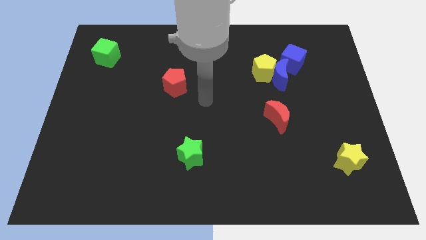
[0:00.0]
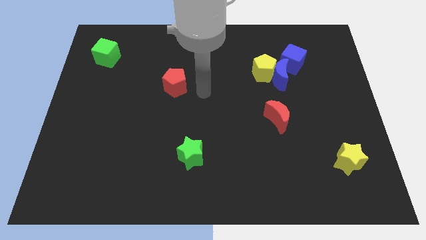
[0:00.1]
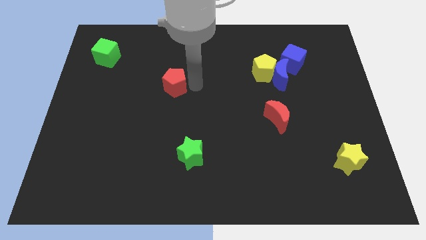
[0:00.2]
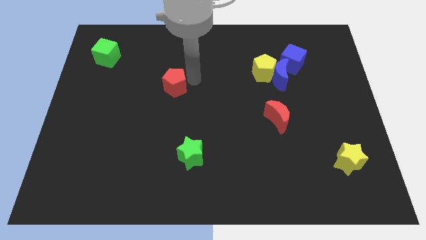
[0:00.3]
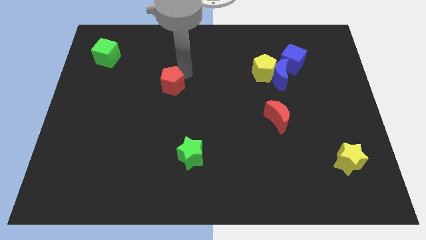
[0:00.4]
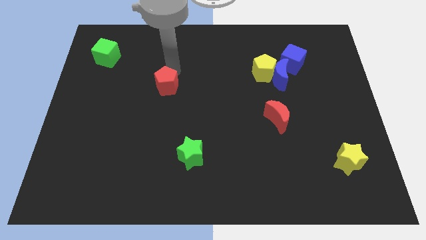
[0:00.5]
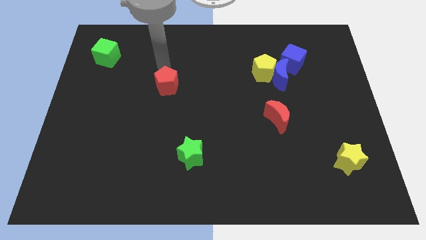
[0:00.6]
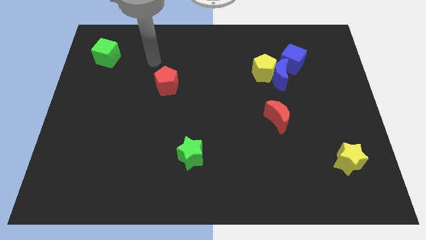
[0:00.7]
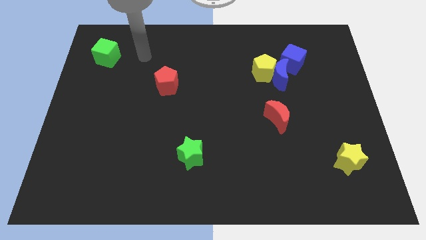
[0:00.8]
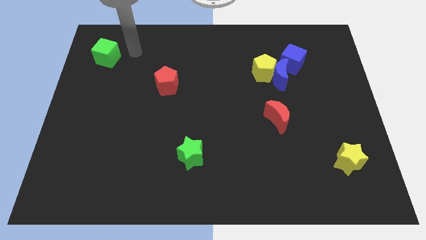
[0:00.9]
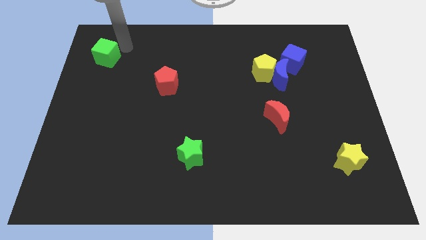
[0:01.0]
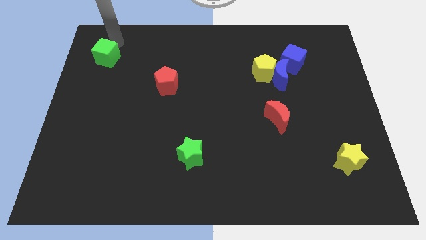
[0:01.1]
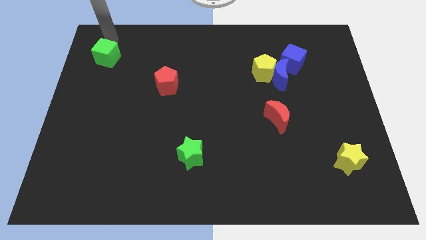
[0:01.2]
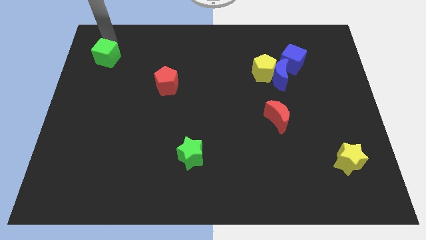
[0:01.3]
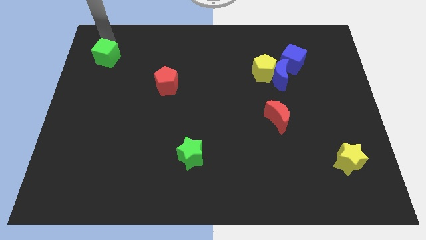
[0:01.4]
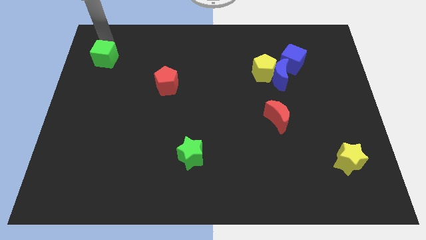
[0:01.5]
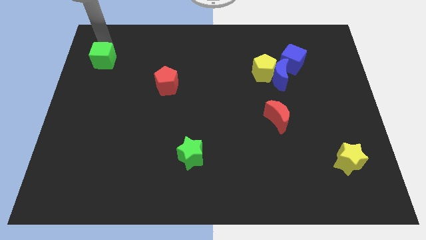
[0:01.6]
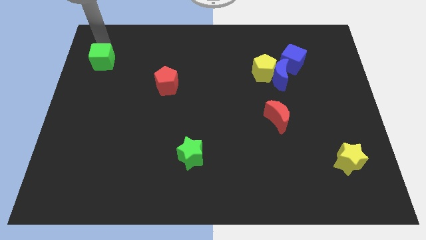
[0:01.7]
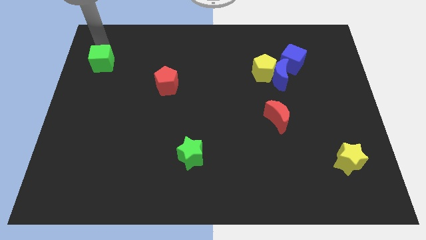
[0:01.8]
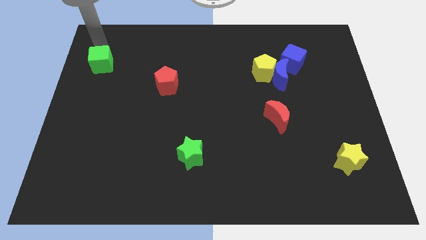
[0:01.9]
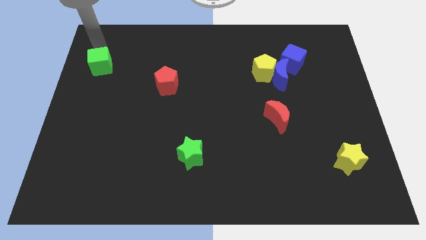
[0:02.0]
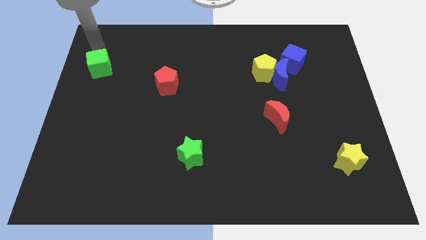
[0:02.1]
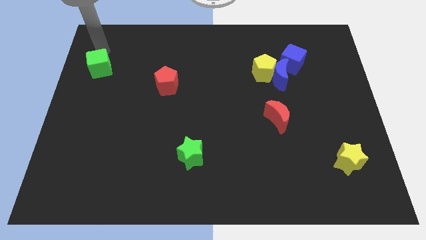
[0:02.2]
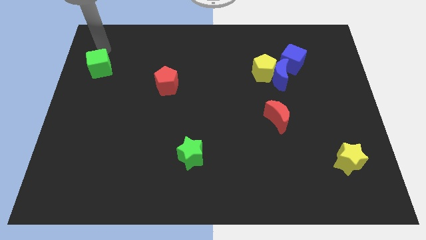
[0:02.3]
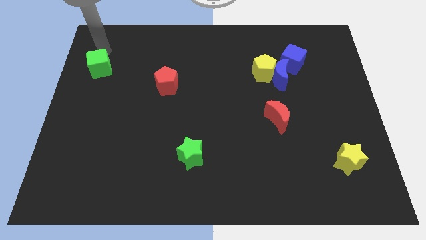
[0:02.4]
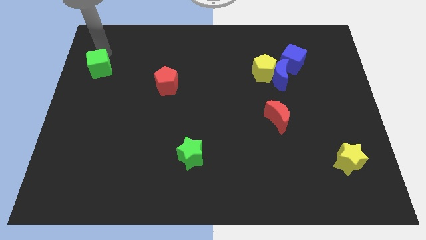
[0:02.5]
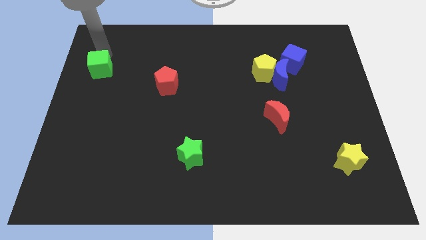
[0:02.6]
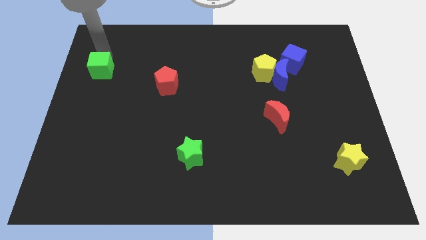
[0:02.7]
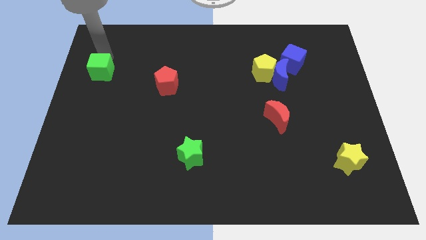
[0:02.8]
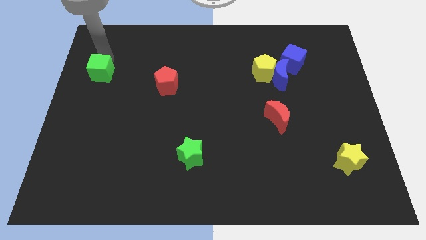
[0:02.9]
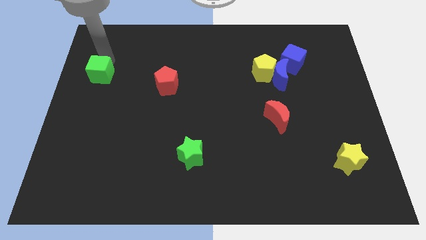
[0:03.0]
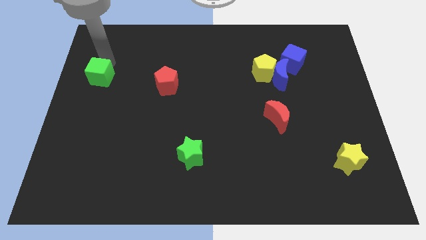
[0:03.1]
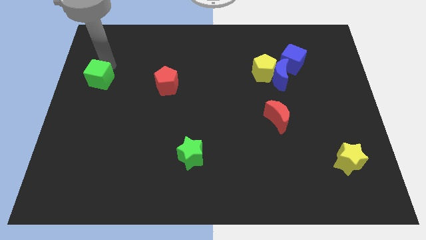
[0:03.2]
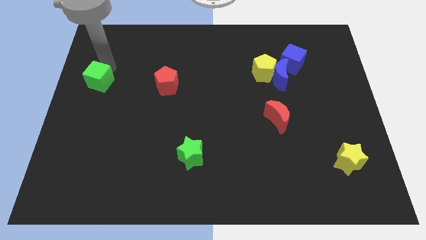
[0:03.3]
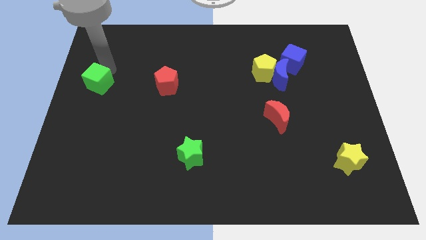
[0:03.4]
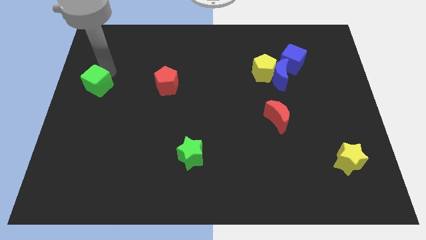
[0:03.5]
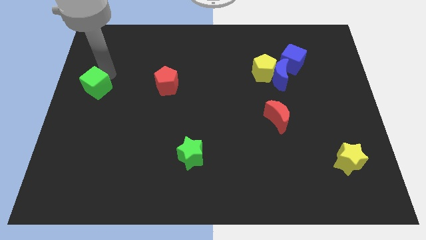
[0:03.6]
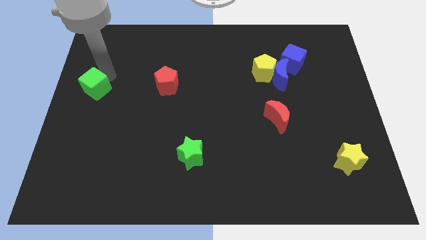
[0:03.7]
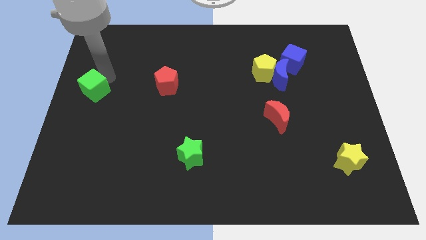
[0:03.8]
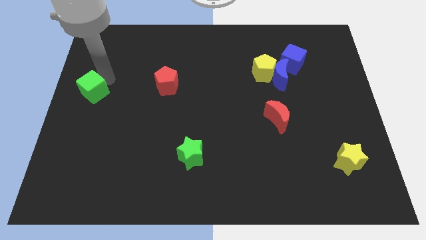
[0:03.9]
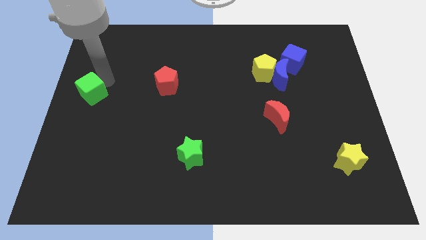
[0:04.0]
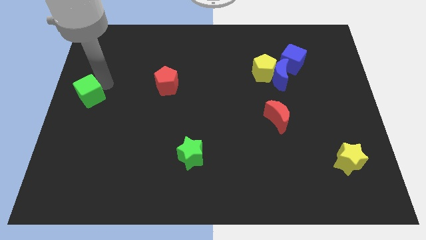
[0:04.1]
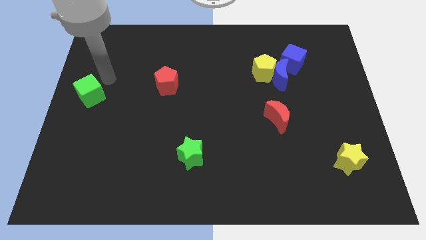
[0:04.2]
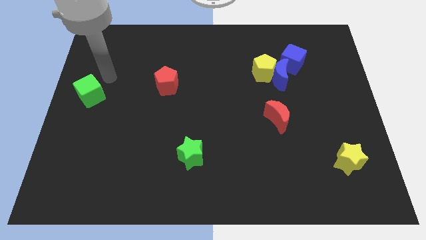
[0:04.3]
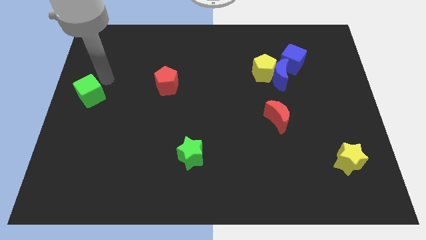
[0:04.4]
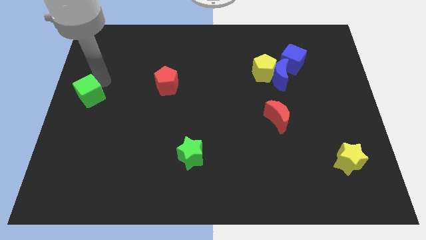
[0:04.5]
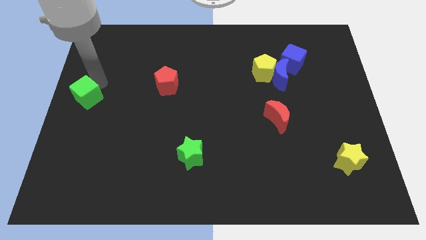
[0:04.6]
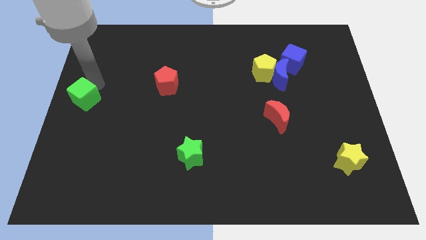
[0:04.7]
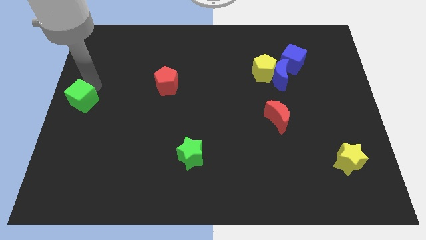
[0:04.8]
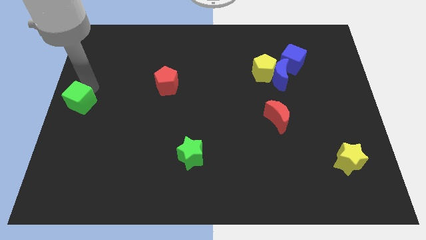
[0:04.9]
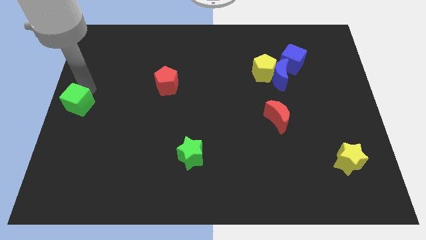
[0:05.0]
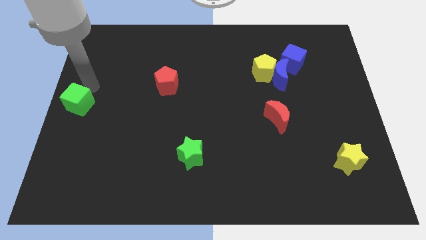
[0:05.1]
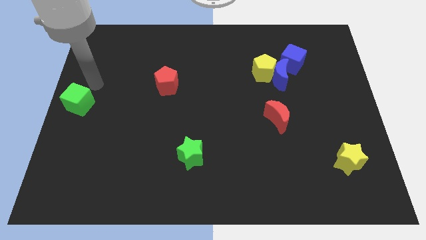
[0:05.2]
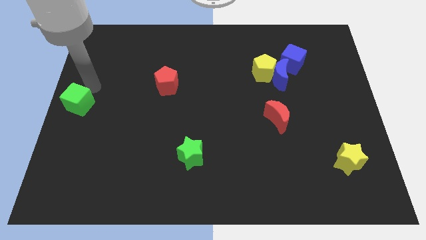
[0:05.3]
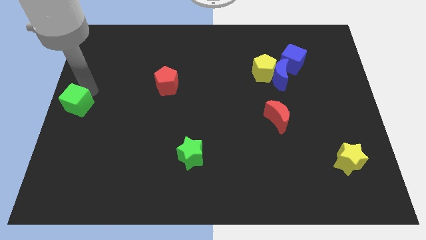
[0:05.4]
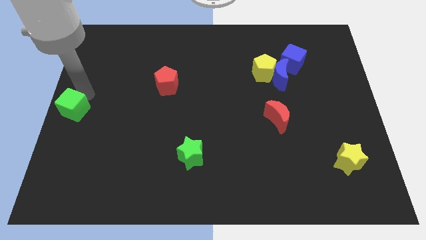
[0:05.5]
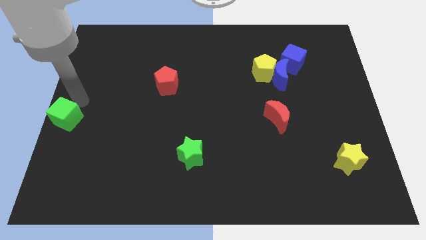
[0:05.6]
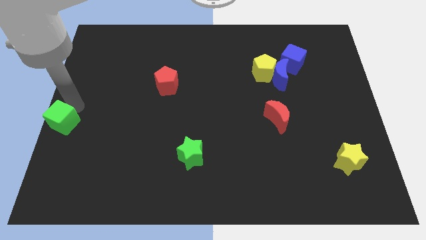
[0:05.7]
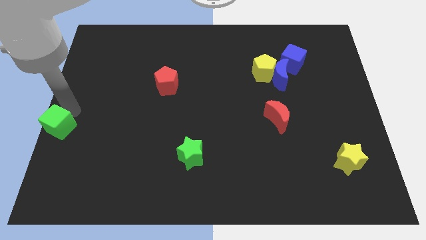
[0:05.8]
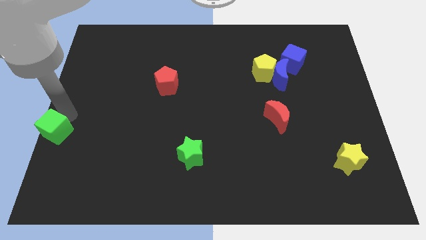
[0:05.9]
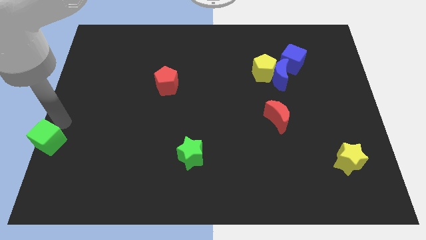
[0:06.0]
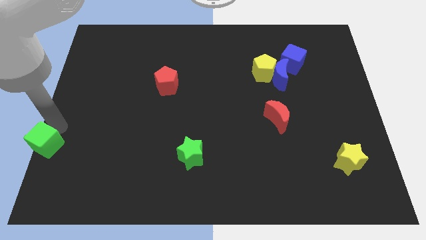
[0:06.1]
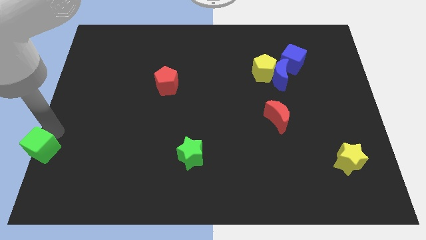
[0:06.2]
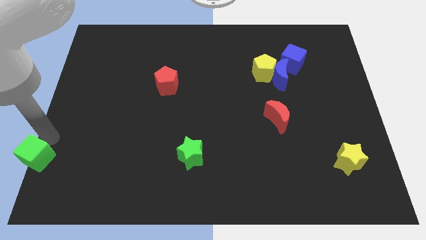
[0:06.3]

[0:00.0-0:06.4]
move the green cube to the lower left corner
